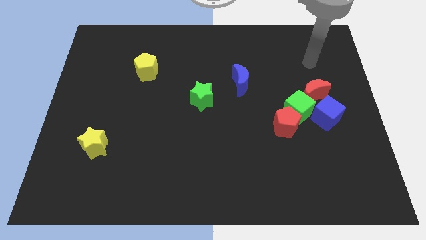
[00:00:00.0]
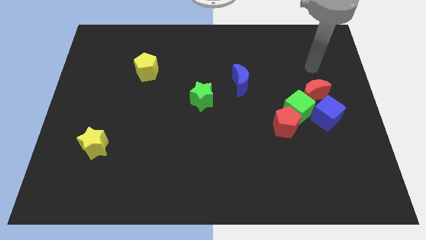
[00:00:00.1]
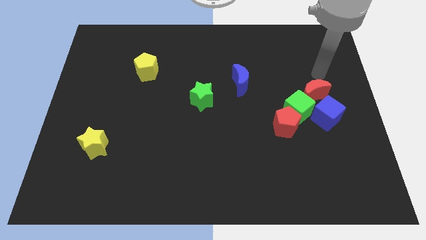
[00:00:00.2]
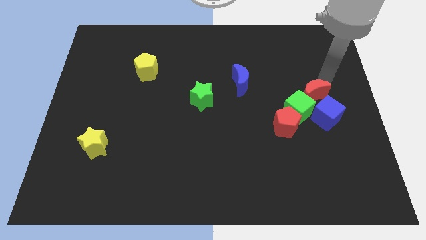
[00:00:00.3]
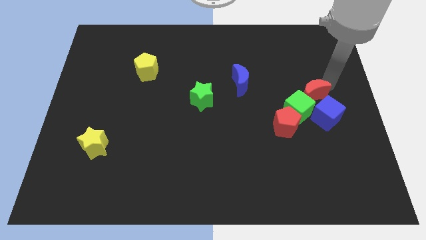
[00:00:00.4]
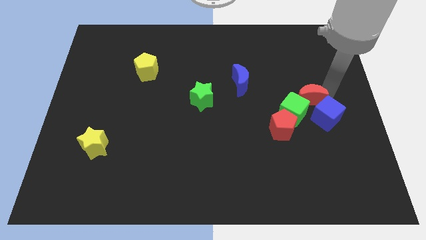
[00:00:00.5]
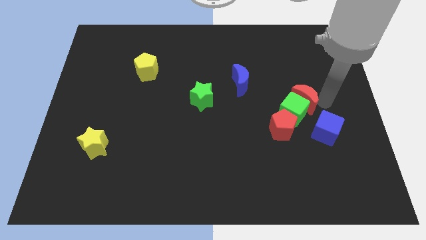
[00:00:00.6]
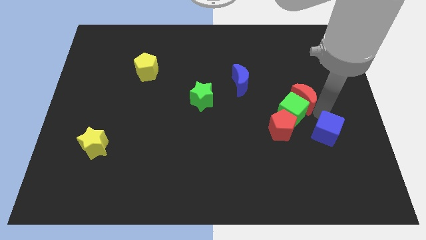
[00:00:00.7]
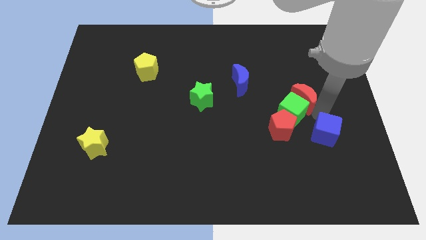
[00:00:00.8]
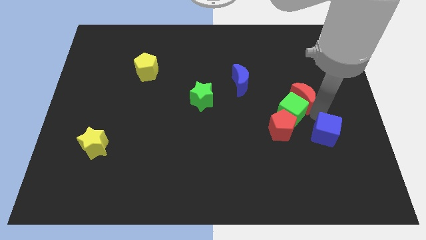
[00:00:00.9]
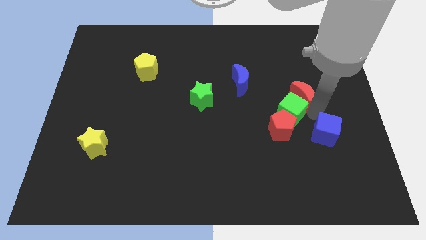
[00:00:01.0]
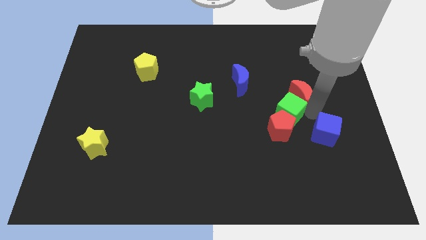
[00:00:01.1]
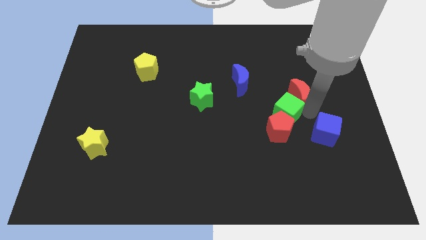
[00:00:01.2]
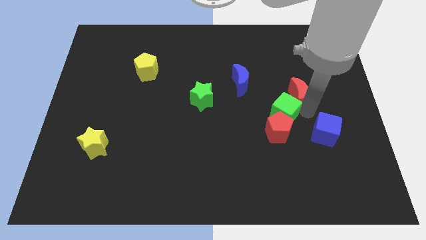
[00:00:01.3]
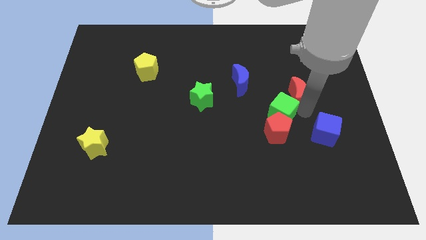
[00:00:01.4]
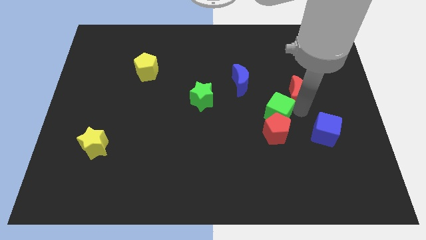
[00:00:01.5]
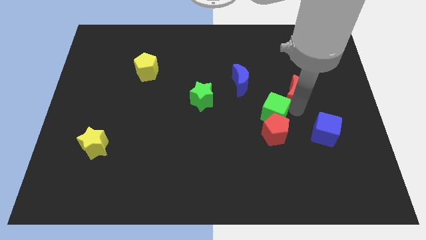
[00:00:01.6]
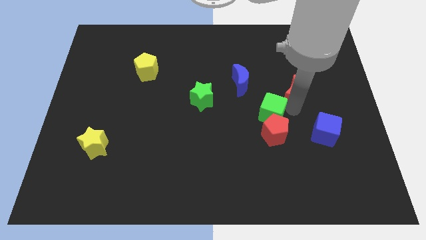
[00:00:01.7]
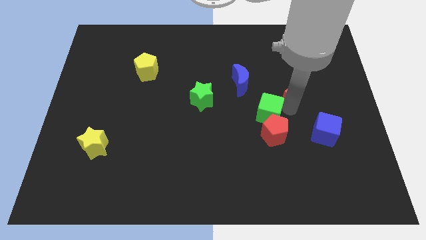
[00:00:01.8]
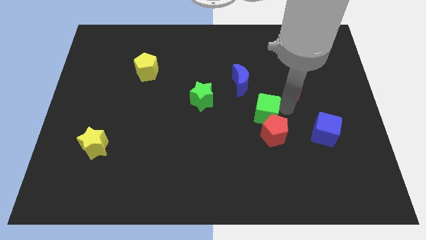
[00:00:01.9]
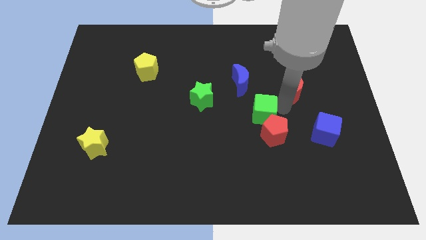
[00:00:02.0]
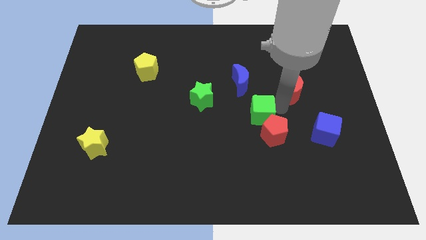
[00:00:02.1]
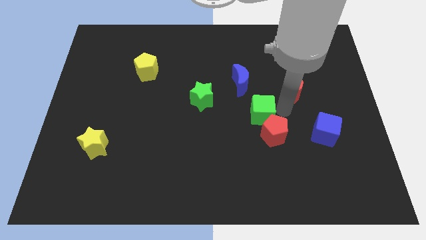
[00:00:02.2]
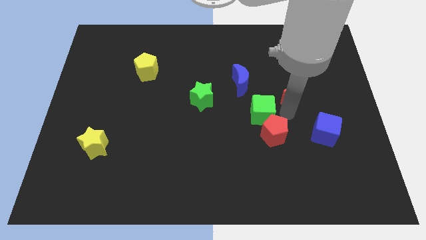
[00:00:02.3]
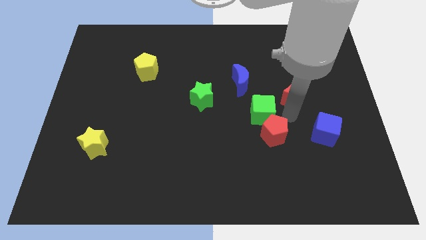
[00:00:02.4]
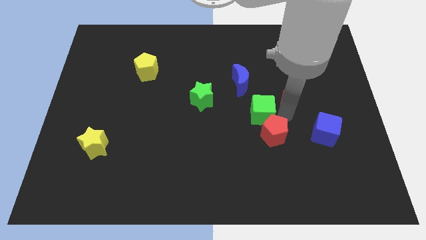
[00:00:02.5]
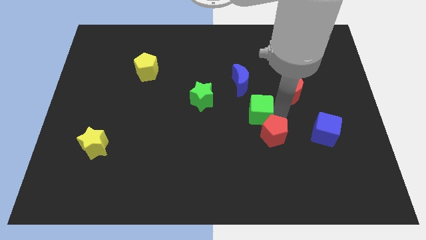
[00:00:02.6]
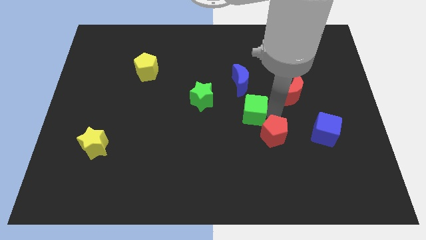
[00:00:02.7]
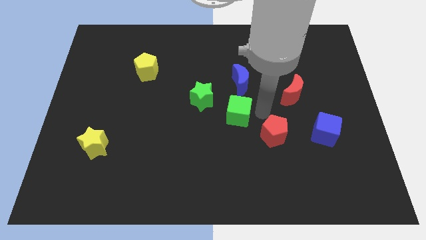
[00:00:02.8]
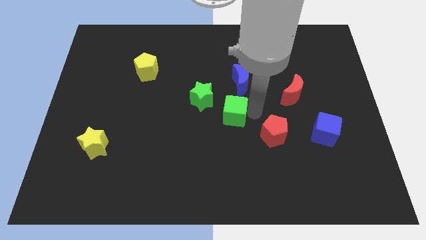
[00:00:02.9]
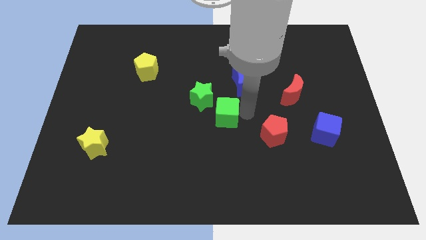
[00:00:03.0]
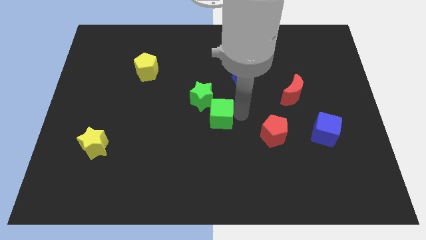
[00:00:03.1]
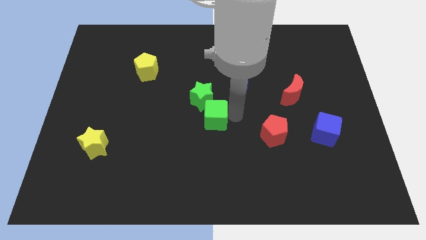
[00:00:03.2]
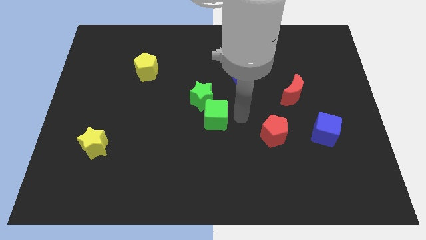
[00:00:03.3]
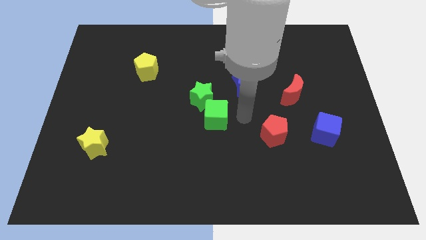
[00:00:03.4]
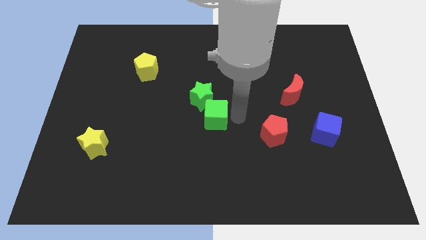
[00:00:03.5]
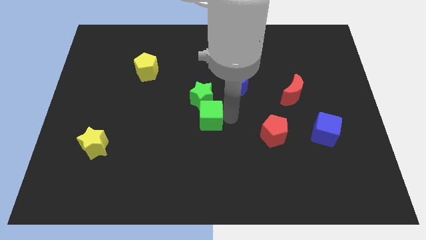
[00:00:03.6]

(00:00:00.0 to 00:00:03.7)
slide the green cube to the left

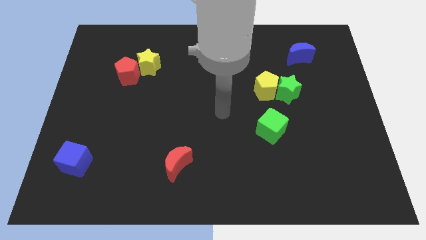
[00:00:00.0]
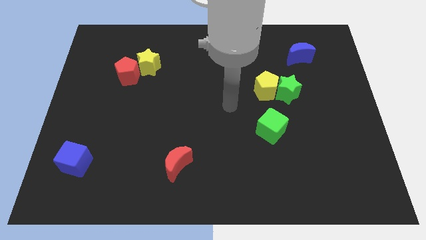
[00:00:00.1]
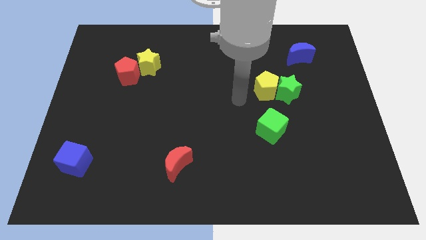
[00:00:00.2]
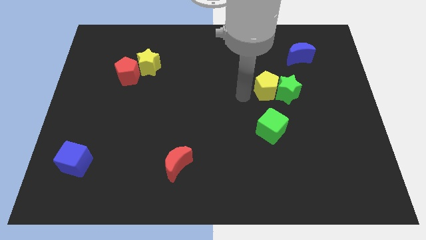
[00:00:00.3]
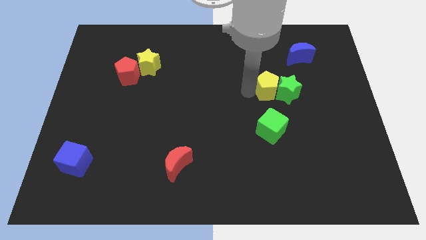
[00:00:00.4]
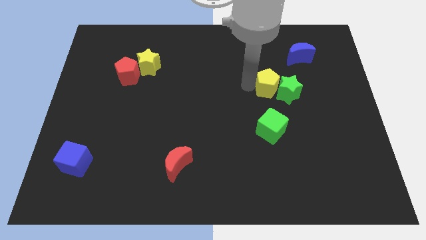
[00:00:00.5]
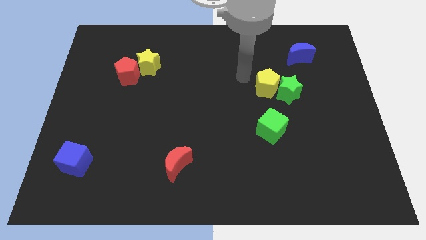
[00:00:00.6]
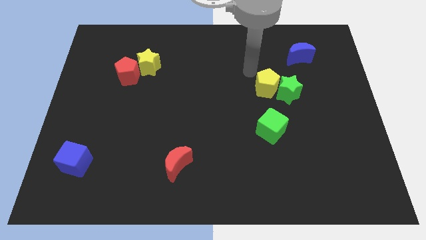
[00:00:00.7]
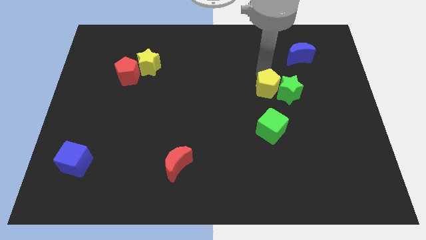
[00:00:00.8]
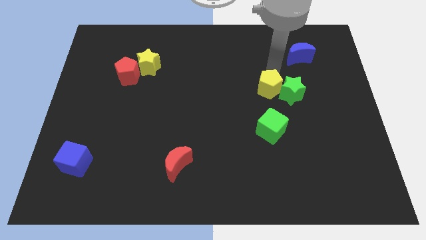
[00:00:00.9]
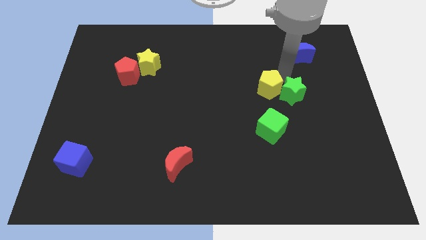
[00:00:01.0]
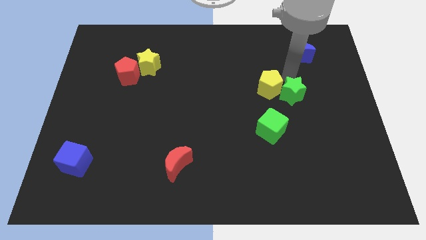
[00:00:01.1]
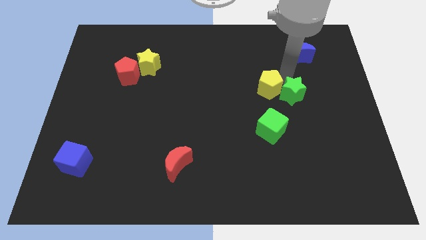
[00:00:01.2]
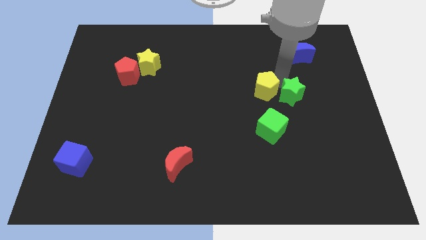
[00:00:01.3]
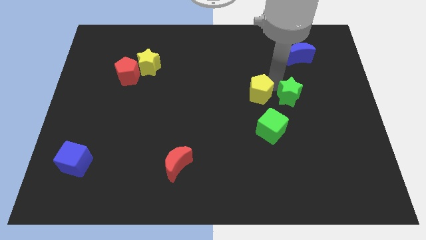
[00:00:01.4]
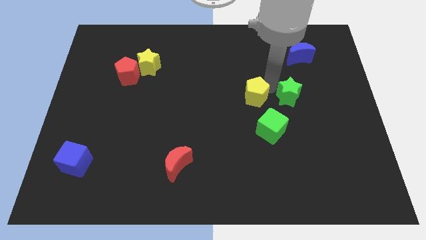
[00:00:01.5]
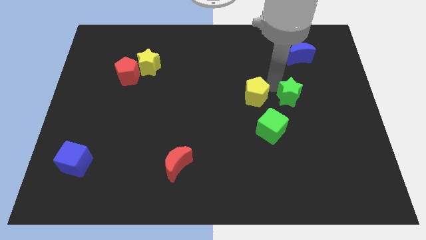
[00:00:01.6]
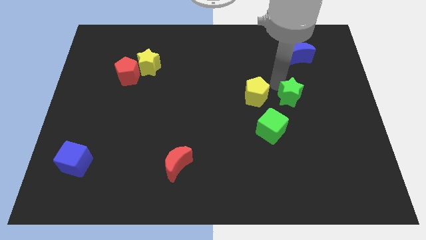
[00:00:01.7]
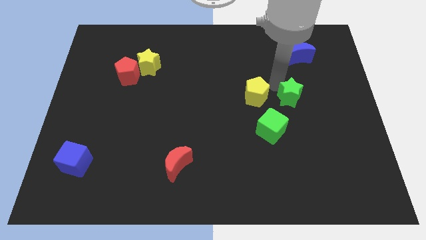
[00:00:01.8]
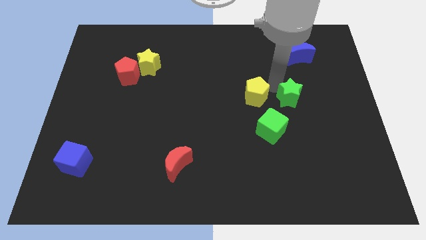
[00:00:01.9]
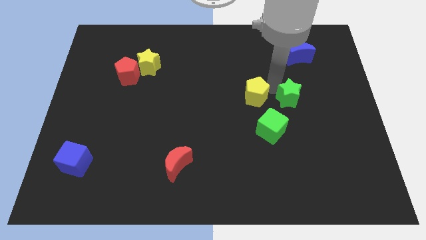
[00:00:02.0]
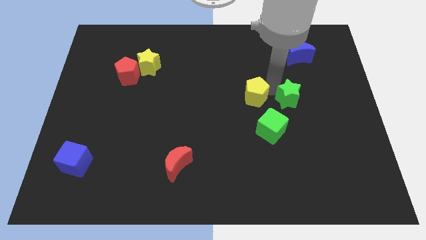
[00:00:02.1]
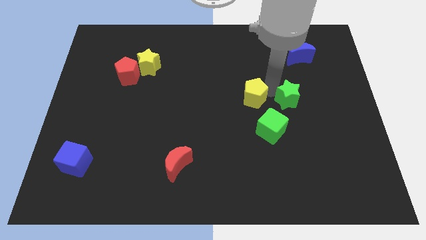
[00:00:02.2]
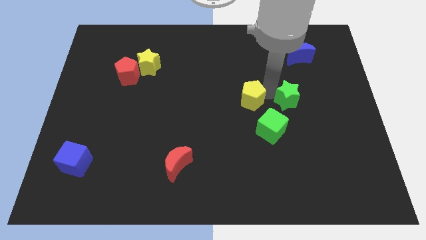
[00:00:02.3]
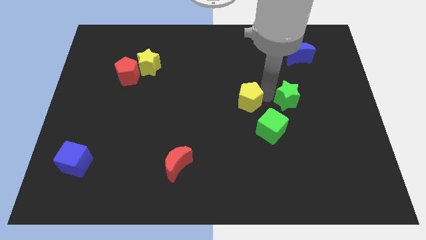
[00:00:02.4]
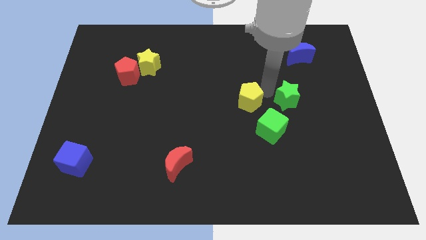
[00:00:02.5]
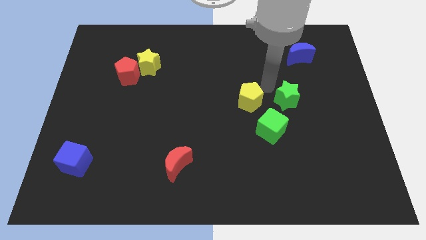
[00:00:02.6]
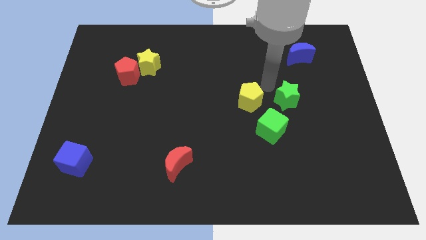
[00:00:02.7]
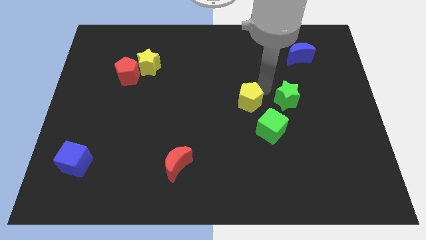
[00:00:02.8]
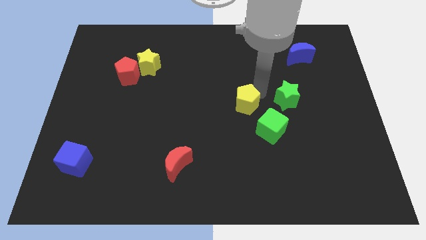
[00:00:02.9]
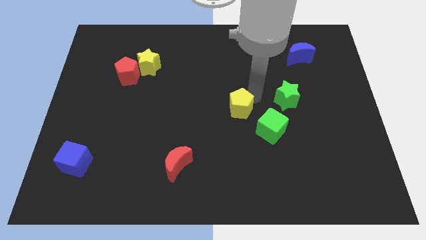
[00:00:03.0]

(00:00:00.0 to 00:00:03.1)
slide the yellow pentagon down and then to the left a little

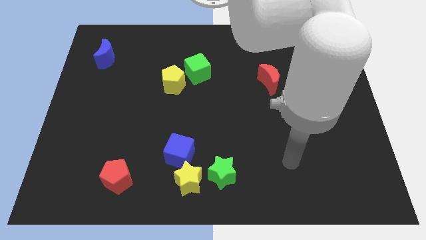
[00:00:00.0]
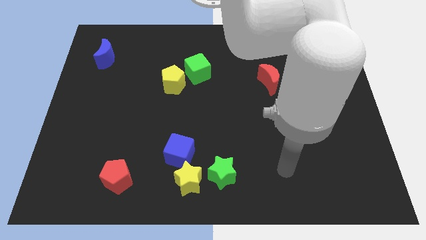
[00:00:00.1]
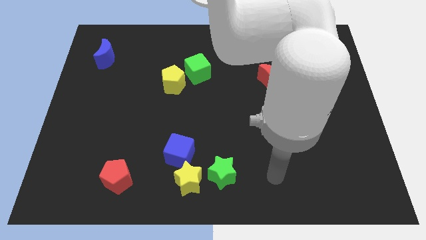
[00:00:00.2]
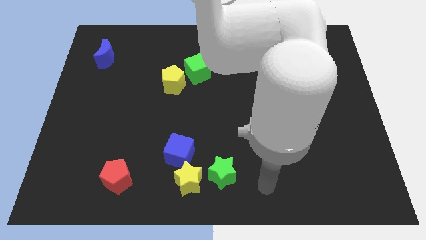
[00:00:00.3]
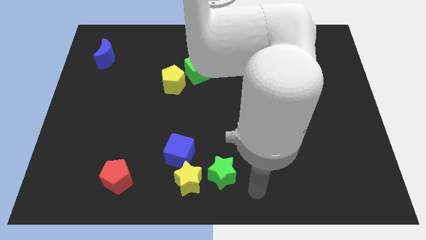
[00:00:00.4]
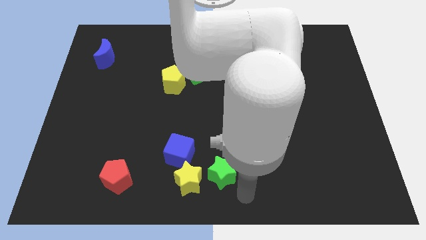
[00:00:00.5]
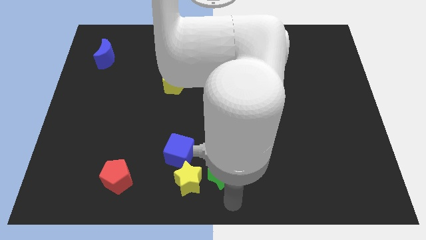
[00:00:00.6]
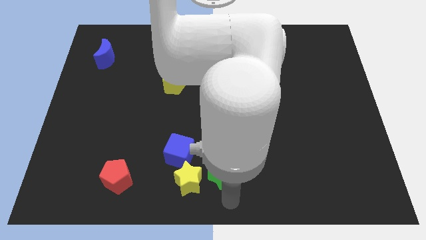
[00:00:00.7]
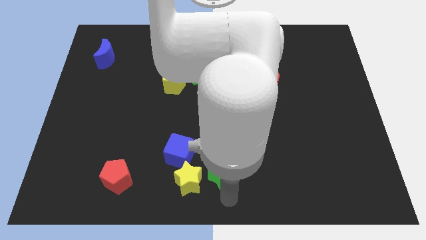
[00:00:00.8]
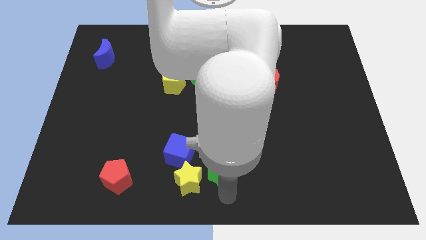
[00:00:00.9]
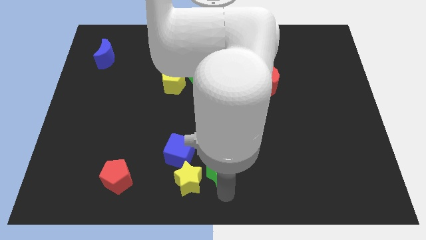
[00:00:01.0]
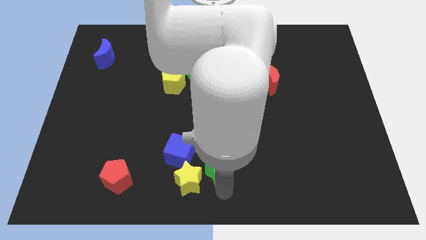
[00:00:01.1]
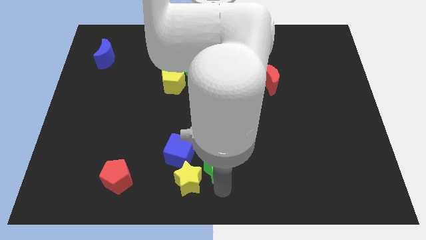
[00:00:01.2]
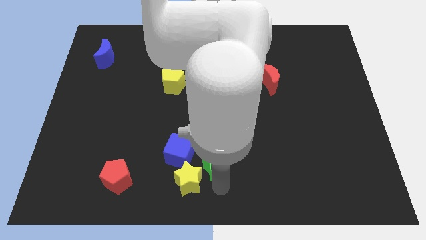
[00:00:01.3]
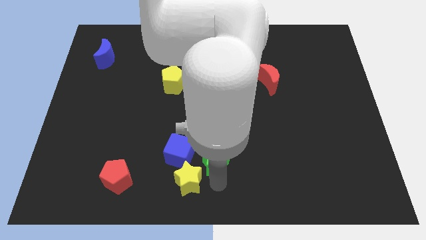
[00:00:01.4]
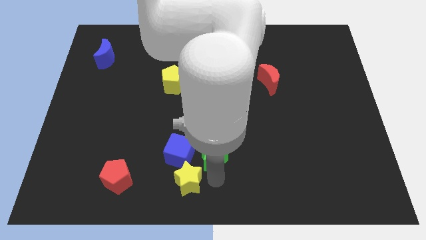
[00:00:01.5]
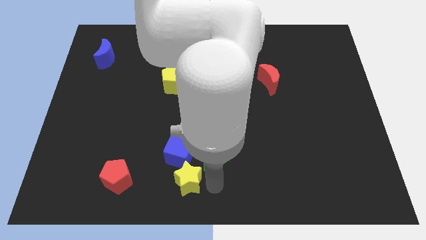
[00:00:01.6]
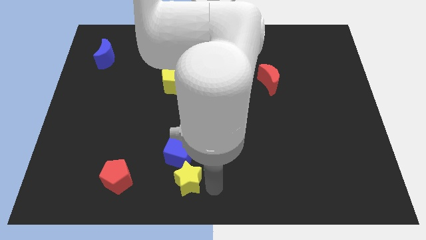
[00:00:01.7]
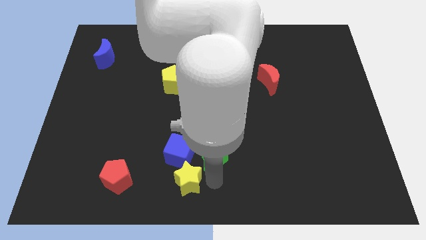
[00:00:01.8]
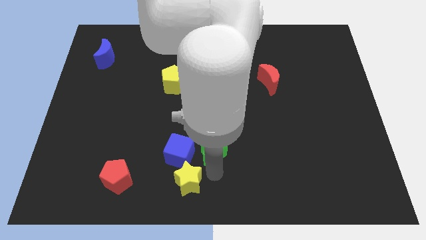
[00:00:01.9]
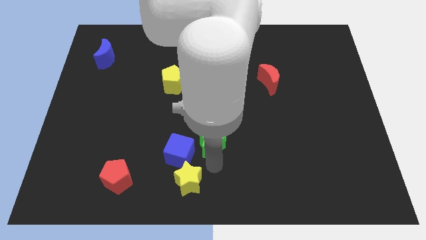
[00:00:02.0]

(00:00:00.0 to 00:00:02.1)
slightly slide the green star upwards
